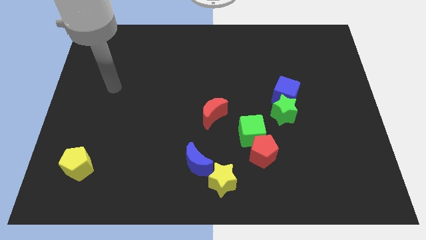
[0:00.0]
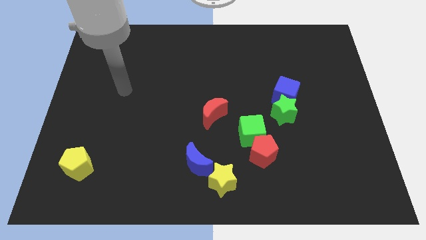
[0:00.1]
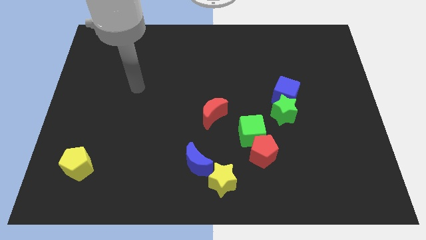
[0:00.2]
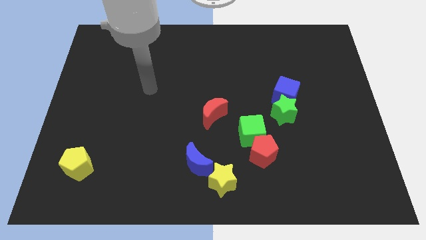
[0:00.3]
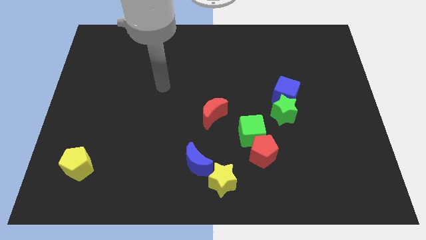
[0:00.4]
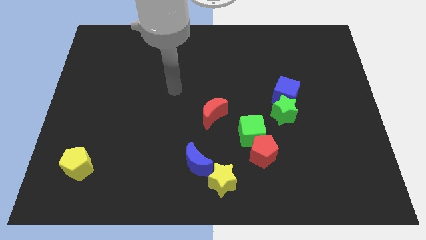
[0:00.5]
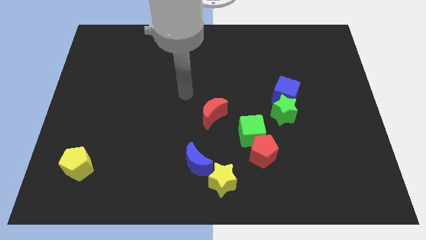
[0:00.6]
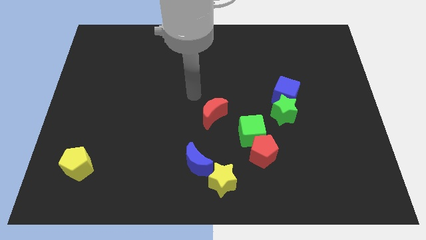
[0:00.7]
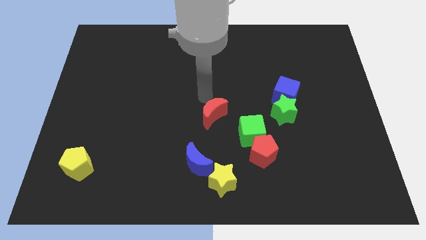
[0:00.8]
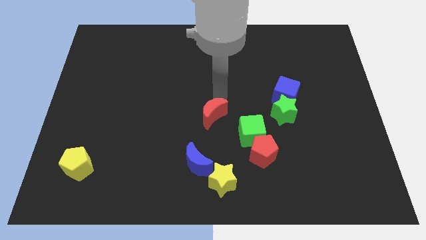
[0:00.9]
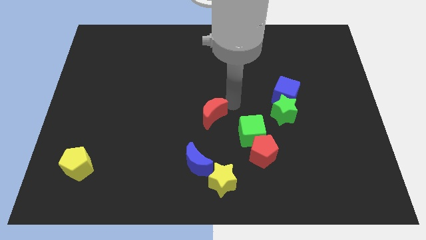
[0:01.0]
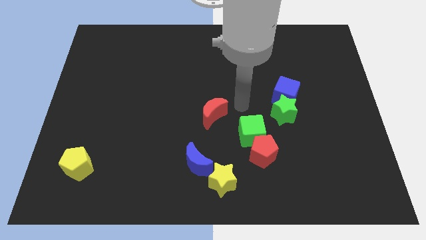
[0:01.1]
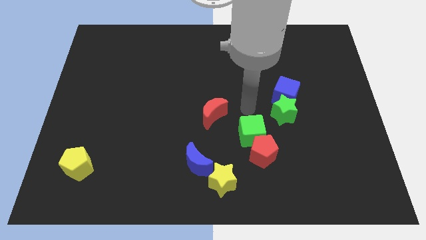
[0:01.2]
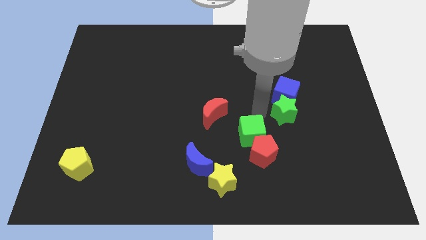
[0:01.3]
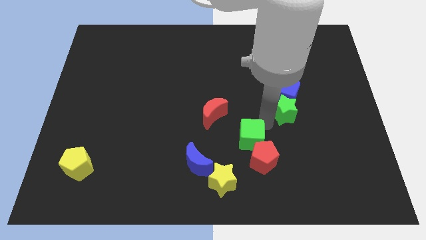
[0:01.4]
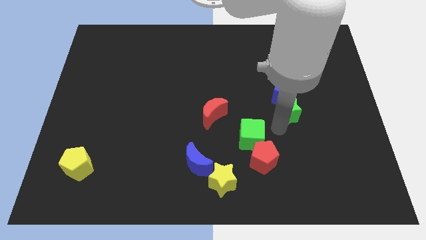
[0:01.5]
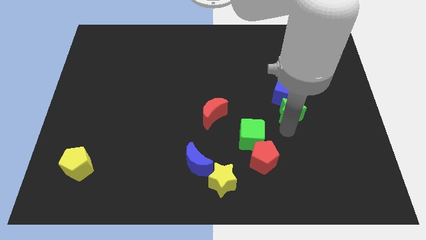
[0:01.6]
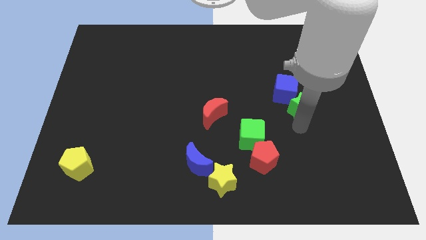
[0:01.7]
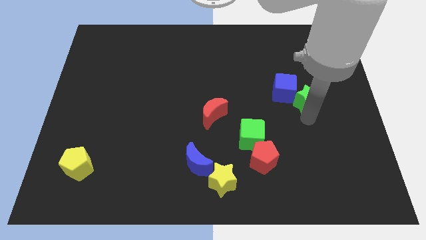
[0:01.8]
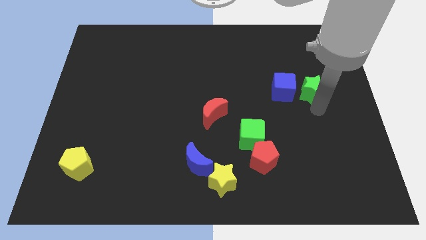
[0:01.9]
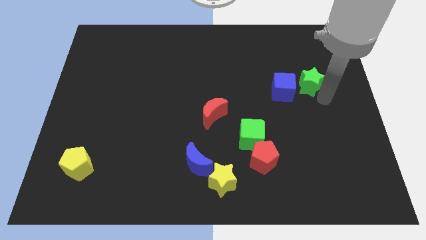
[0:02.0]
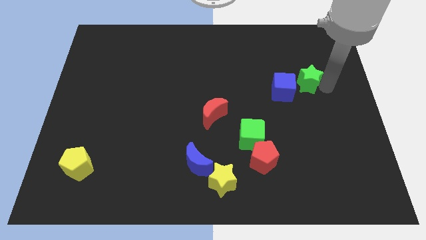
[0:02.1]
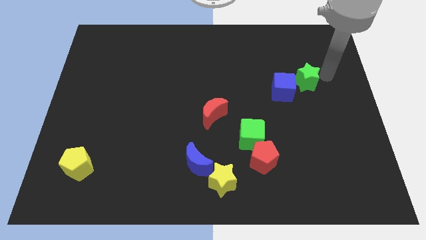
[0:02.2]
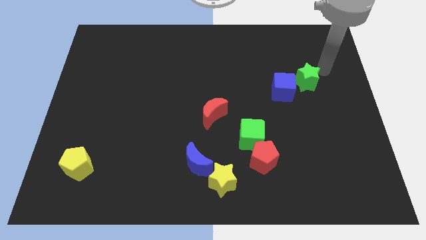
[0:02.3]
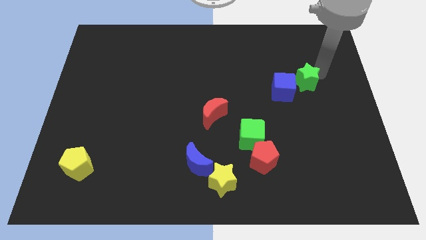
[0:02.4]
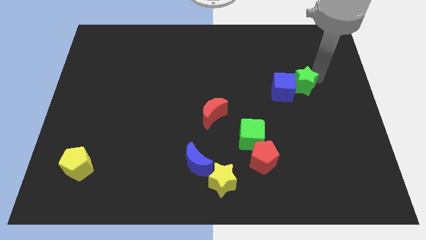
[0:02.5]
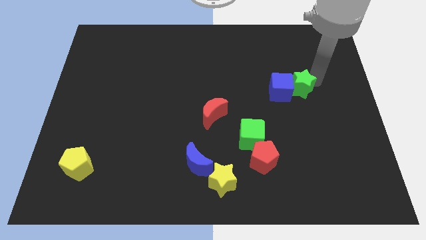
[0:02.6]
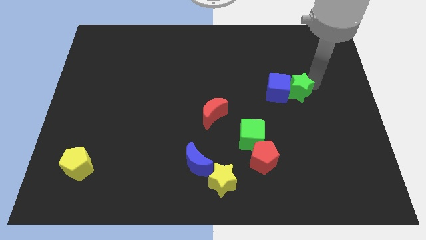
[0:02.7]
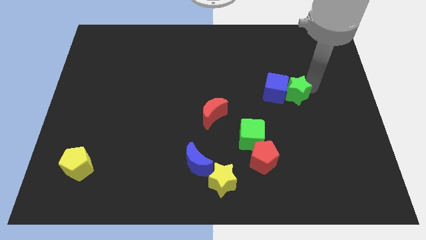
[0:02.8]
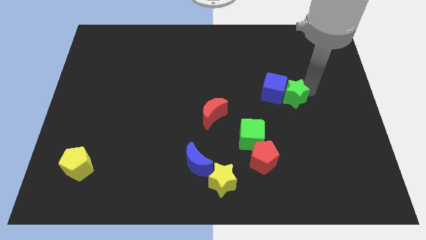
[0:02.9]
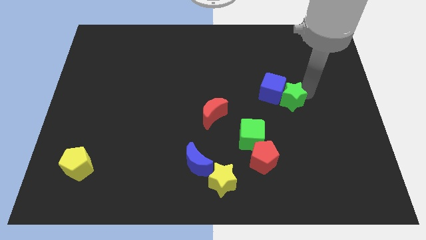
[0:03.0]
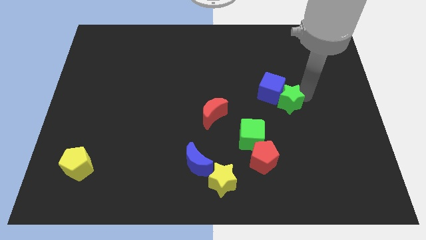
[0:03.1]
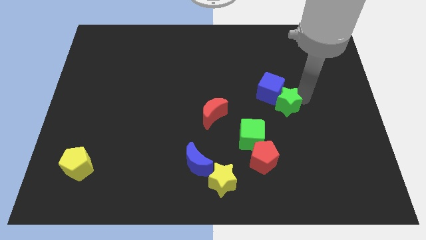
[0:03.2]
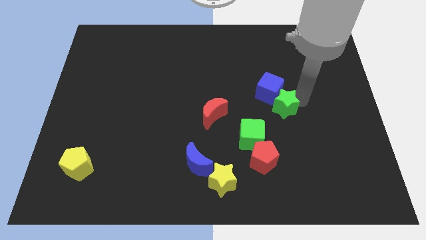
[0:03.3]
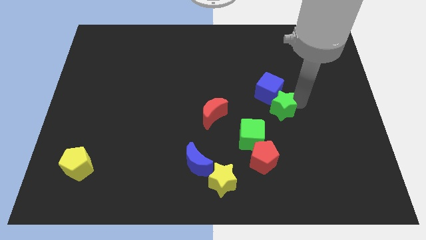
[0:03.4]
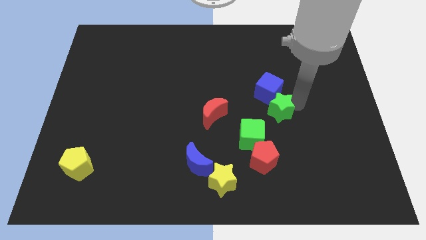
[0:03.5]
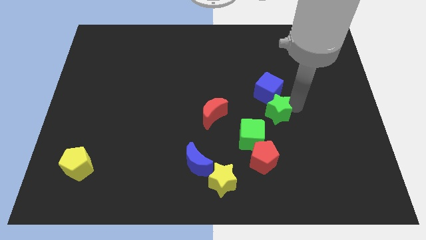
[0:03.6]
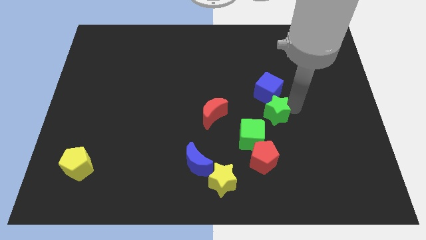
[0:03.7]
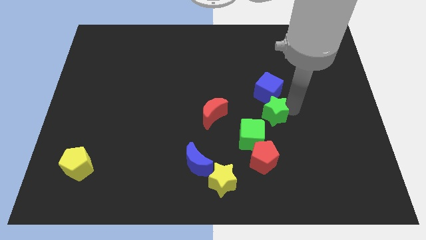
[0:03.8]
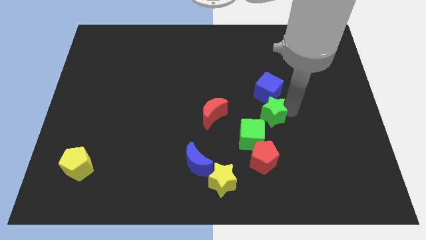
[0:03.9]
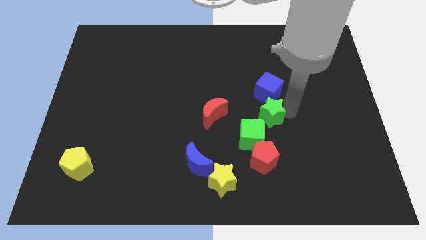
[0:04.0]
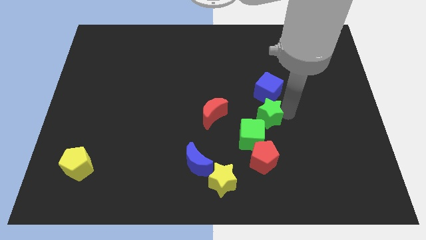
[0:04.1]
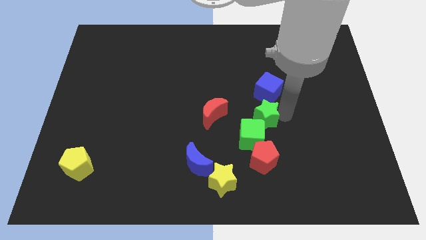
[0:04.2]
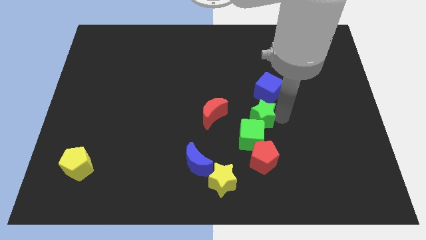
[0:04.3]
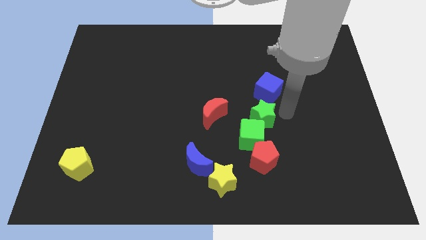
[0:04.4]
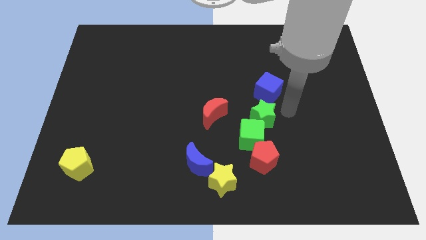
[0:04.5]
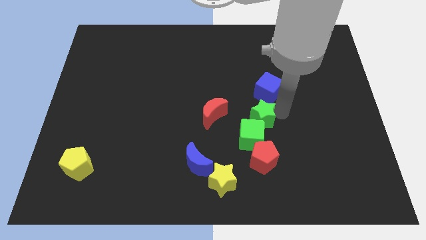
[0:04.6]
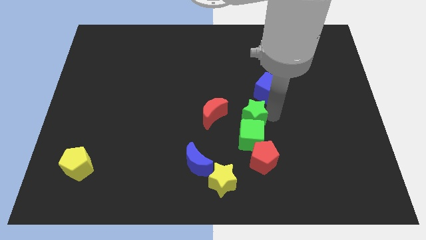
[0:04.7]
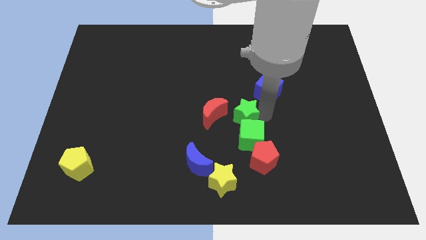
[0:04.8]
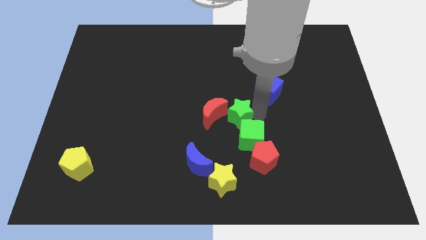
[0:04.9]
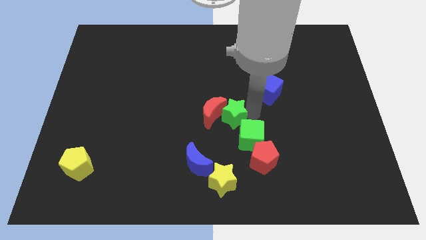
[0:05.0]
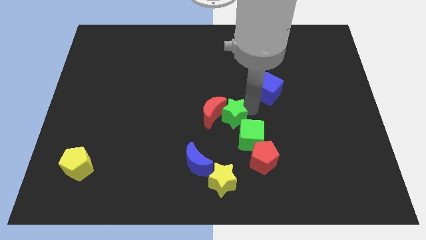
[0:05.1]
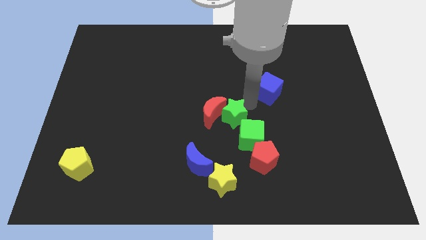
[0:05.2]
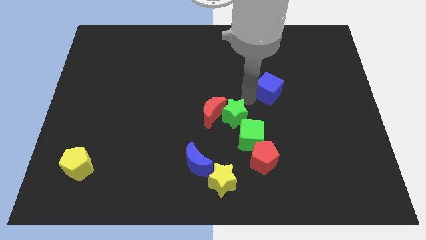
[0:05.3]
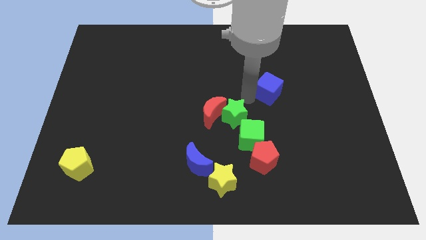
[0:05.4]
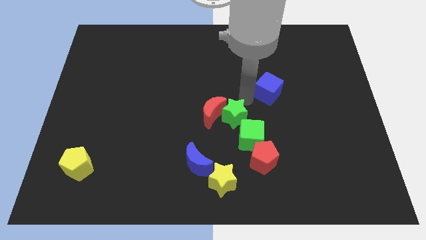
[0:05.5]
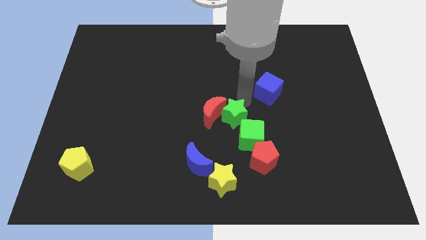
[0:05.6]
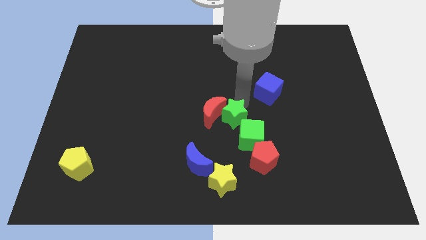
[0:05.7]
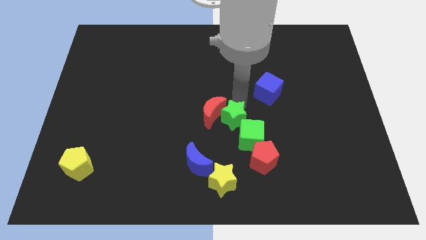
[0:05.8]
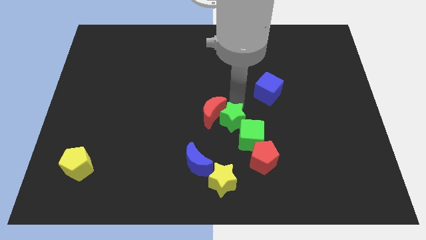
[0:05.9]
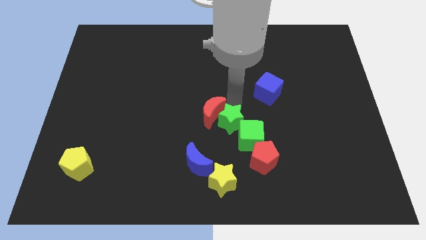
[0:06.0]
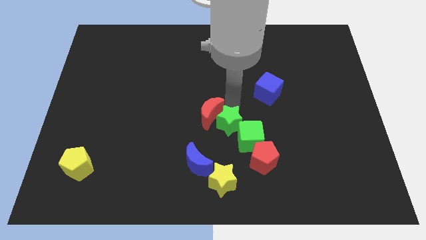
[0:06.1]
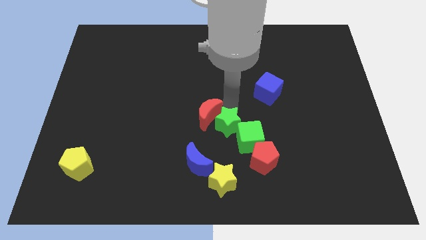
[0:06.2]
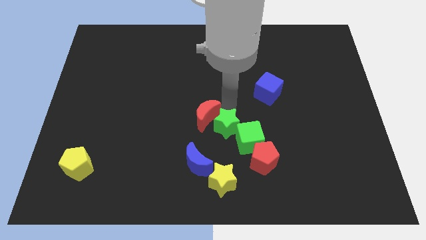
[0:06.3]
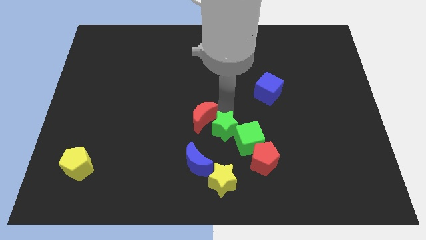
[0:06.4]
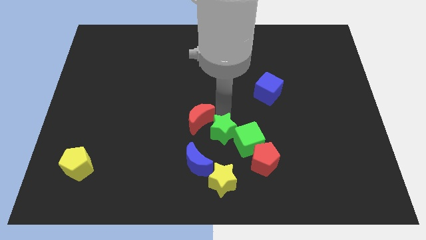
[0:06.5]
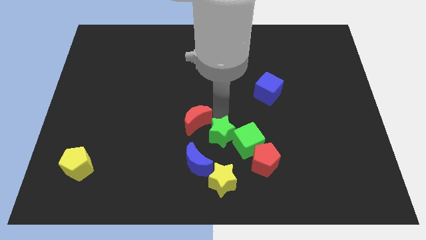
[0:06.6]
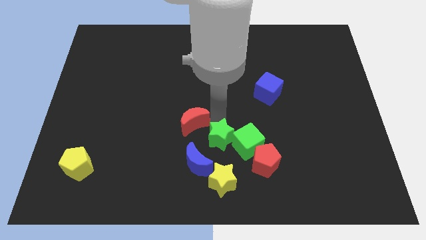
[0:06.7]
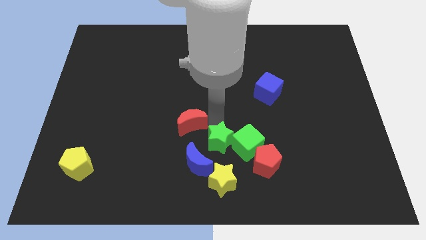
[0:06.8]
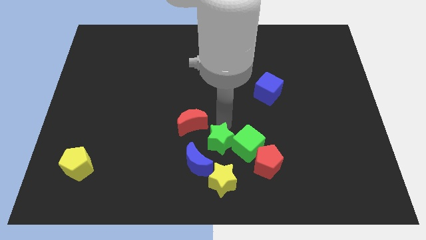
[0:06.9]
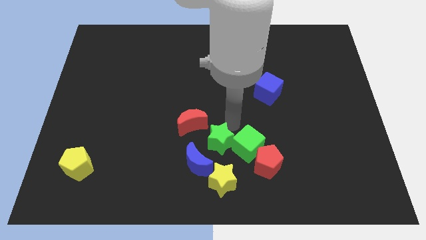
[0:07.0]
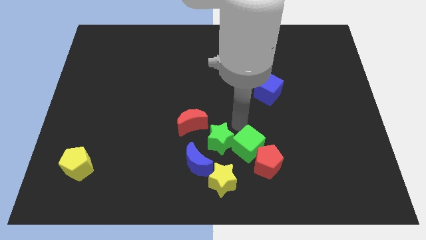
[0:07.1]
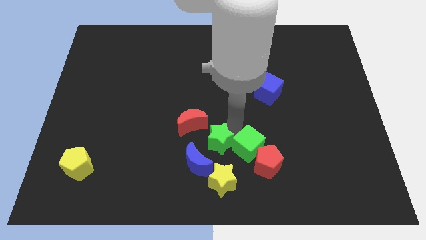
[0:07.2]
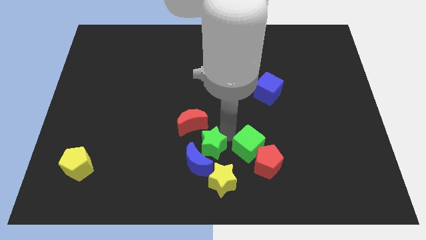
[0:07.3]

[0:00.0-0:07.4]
move the green star to the bottom side of the red moon

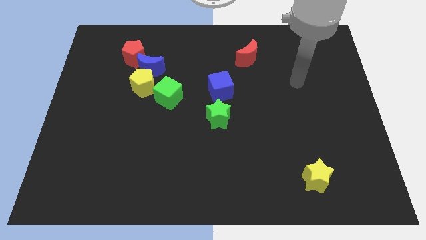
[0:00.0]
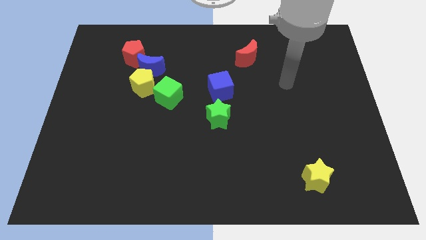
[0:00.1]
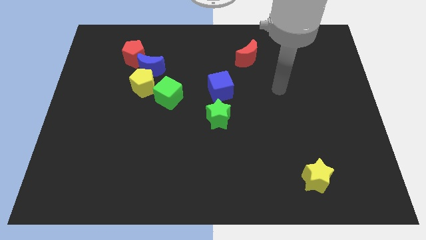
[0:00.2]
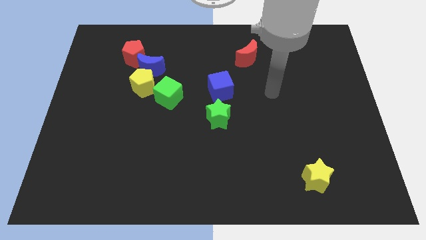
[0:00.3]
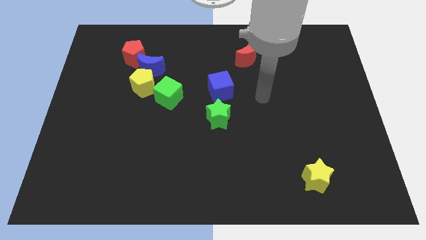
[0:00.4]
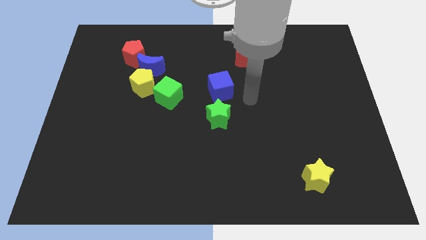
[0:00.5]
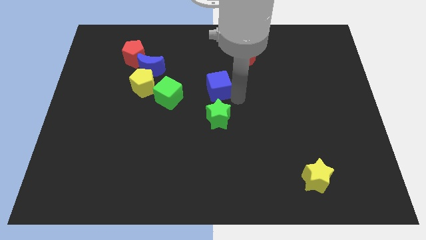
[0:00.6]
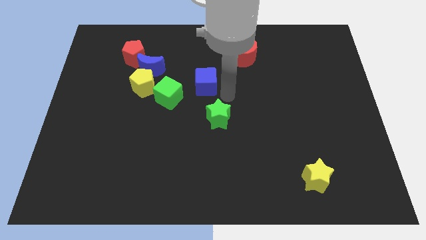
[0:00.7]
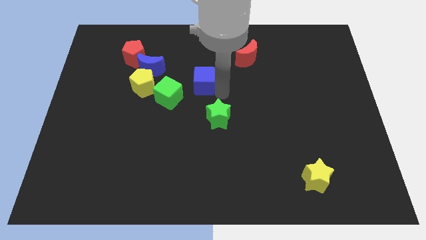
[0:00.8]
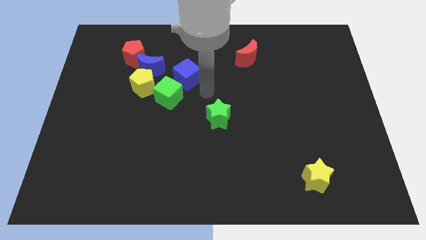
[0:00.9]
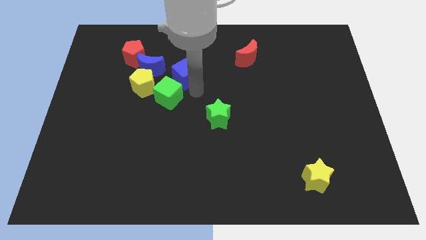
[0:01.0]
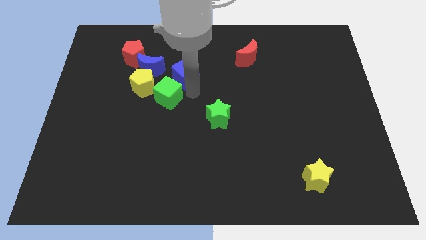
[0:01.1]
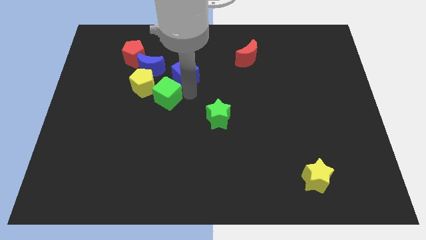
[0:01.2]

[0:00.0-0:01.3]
put the green cube below the blue moon
